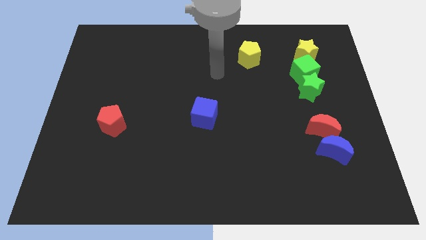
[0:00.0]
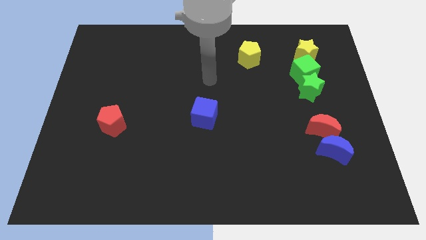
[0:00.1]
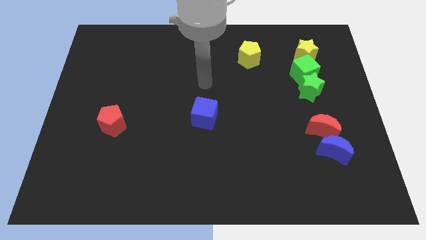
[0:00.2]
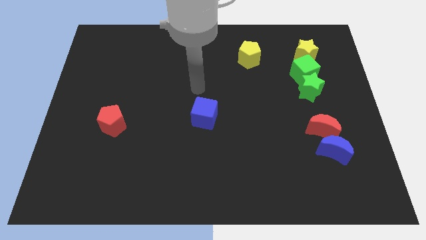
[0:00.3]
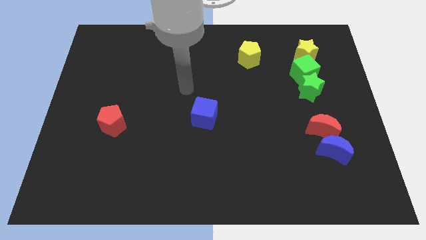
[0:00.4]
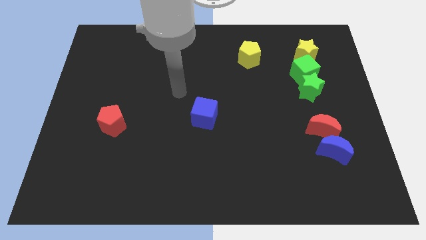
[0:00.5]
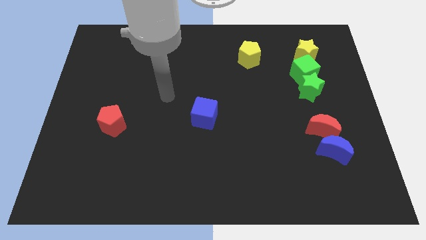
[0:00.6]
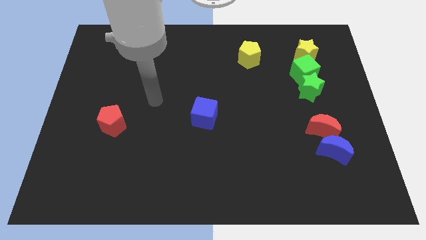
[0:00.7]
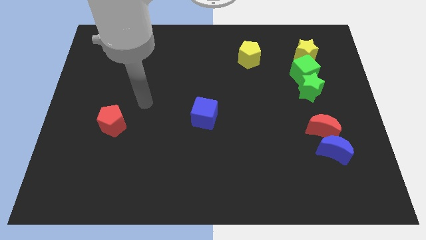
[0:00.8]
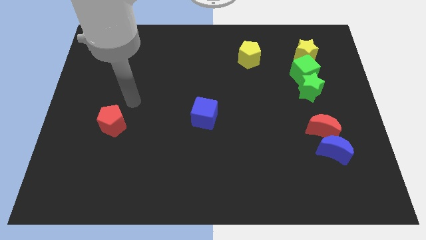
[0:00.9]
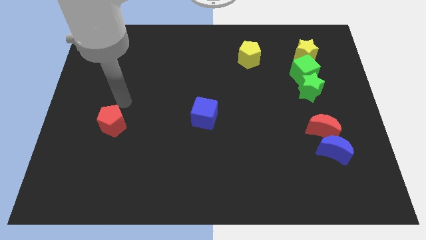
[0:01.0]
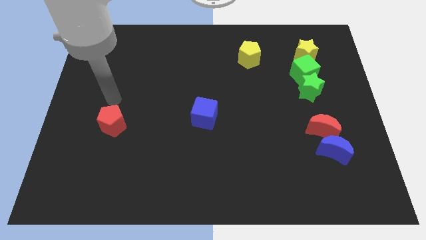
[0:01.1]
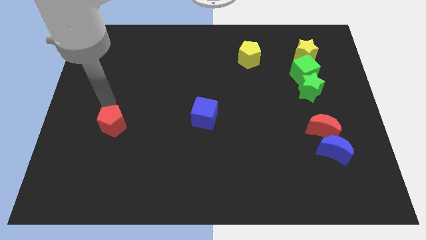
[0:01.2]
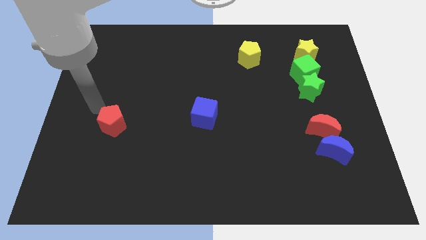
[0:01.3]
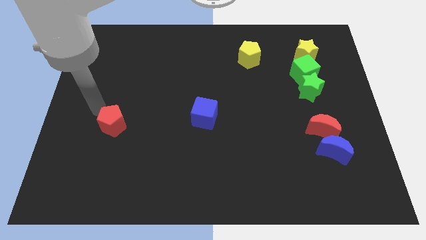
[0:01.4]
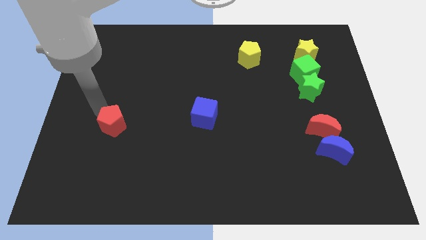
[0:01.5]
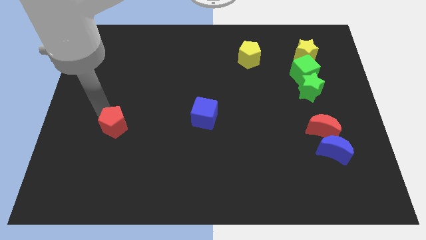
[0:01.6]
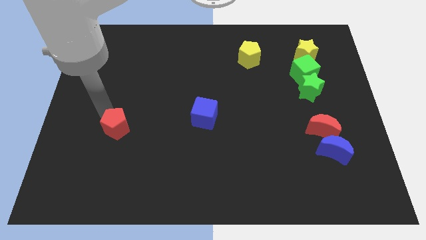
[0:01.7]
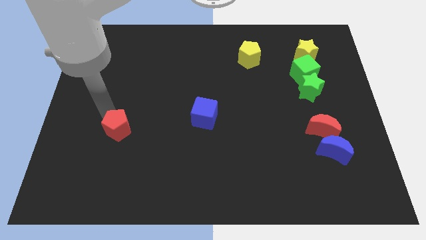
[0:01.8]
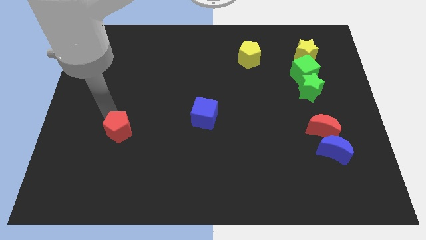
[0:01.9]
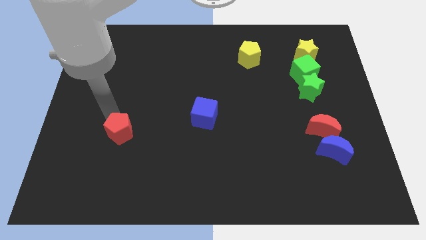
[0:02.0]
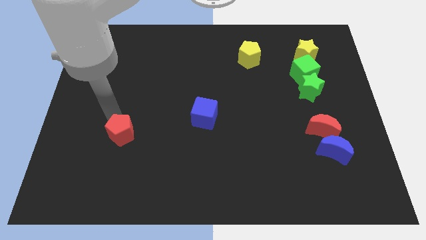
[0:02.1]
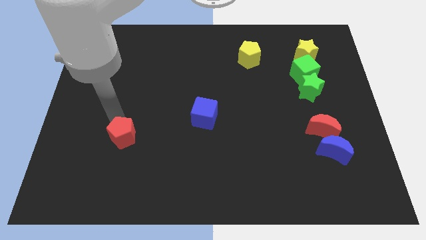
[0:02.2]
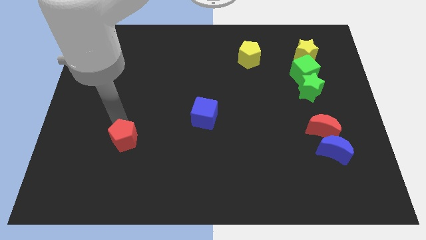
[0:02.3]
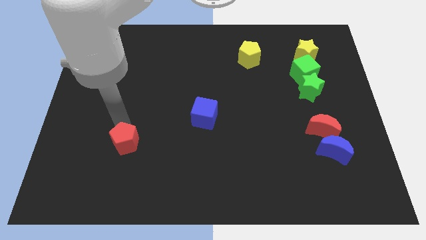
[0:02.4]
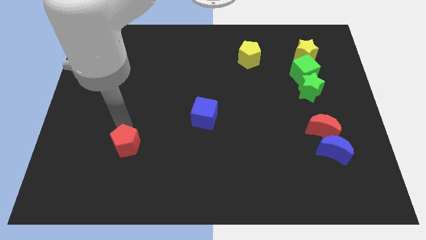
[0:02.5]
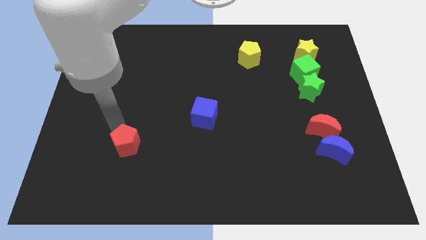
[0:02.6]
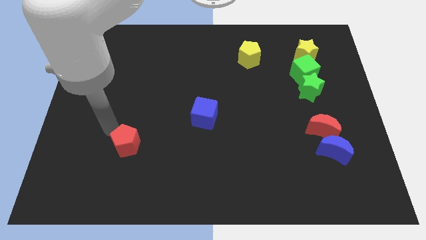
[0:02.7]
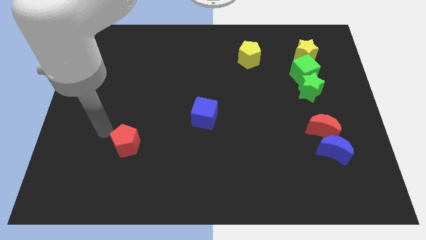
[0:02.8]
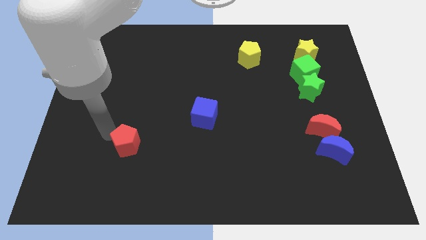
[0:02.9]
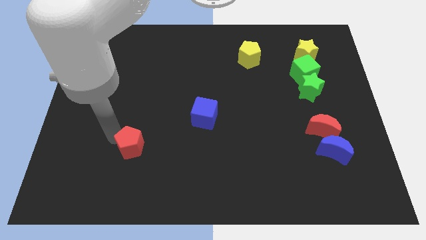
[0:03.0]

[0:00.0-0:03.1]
slightly slide the red pentagon downwards and to the right

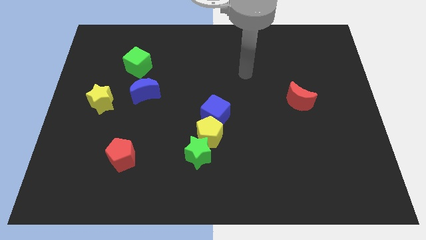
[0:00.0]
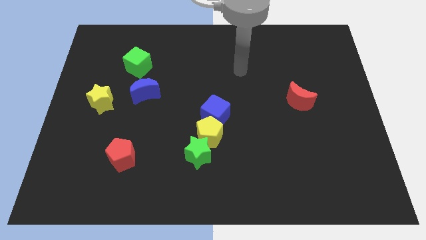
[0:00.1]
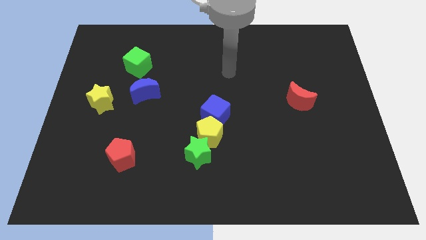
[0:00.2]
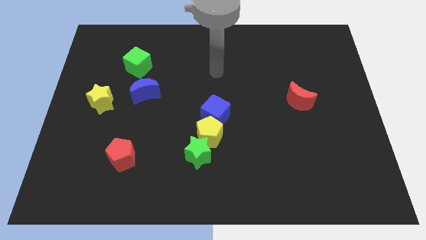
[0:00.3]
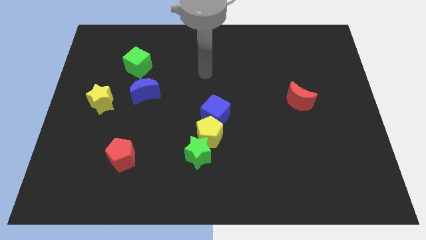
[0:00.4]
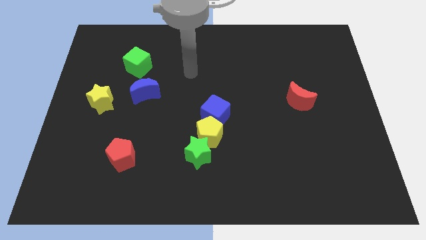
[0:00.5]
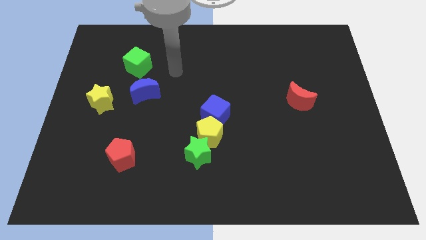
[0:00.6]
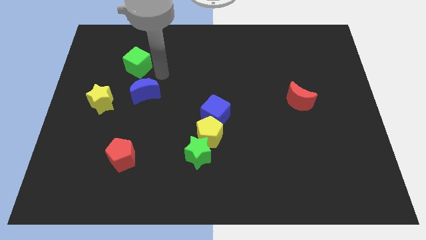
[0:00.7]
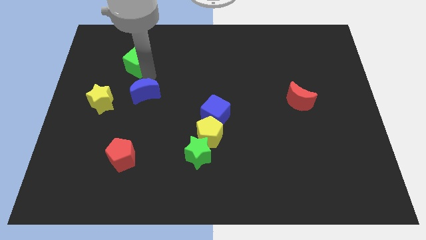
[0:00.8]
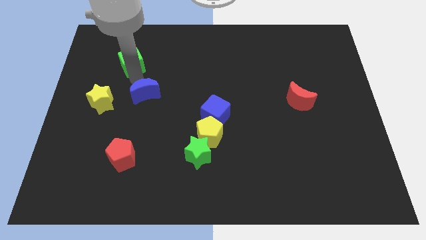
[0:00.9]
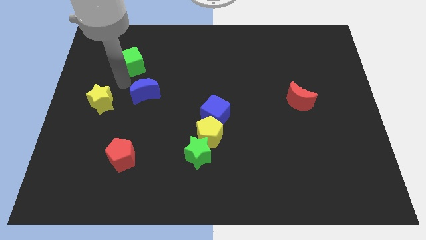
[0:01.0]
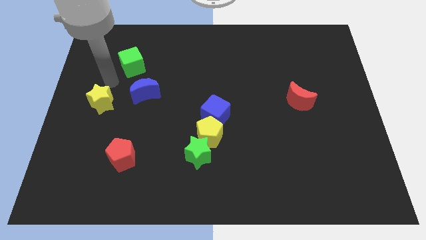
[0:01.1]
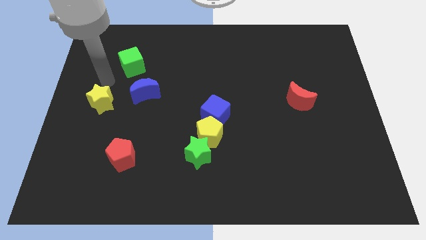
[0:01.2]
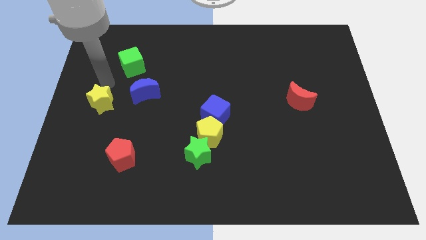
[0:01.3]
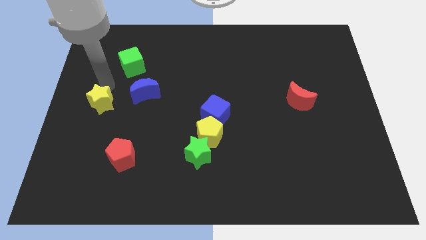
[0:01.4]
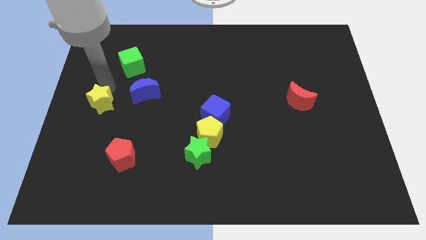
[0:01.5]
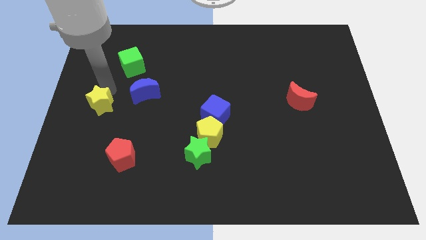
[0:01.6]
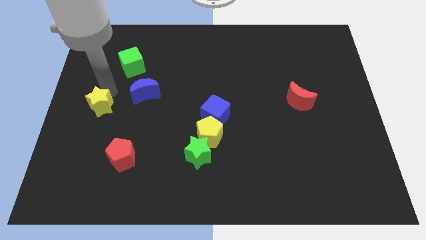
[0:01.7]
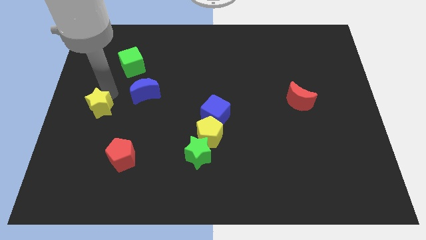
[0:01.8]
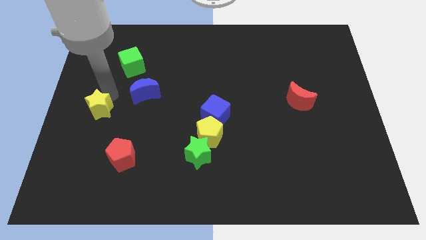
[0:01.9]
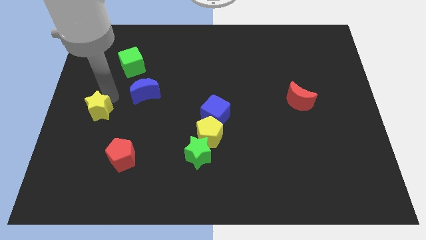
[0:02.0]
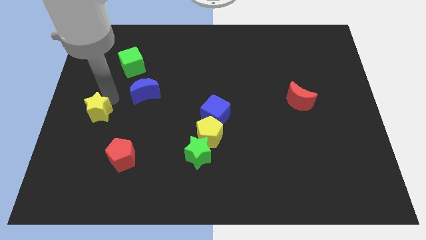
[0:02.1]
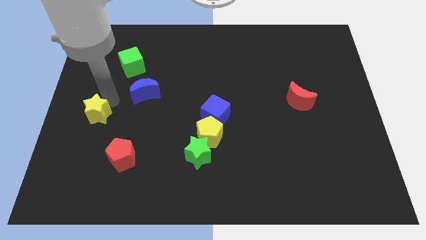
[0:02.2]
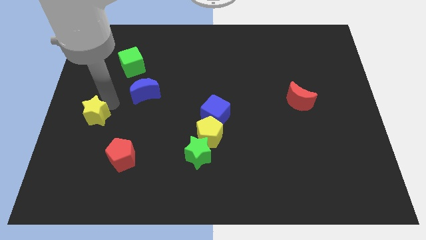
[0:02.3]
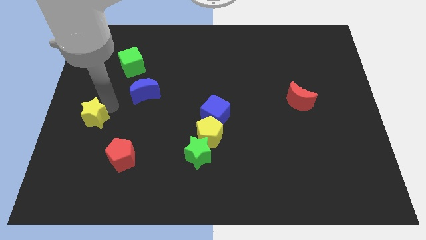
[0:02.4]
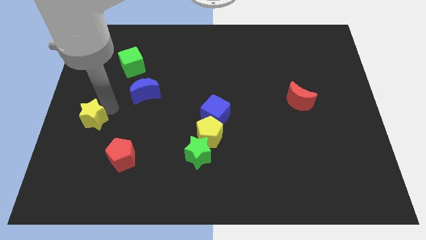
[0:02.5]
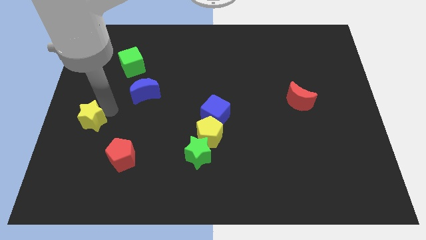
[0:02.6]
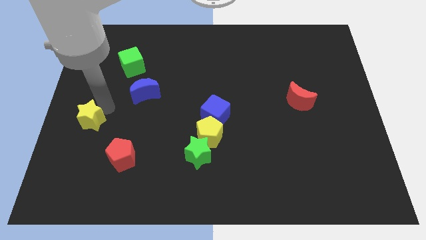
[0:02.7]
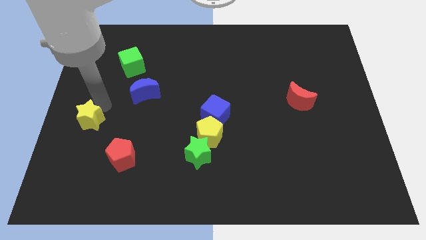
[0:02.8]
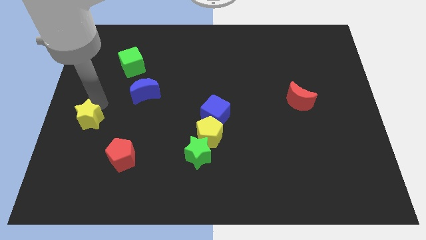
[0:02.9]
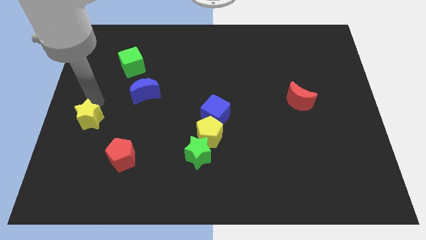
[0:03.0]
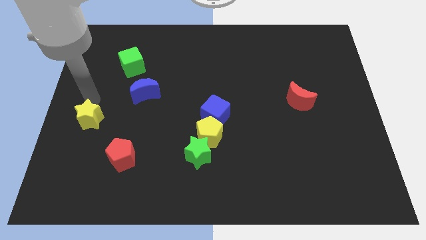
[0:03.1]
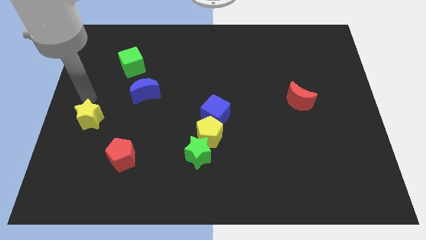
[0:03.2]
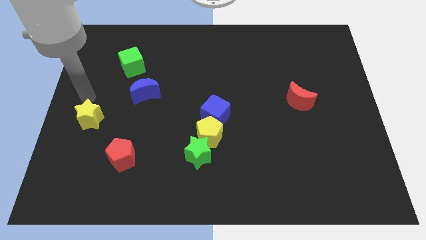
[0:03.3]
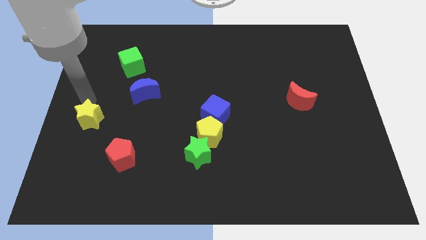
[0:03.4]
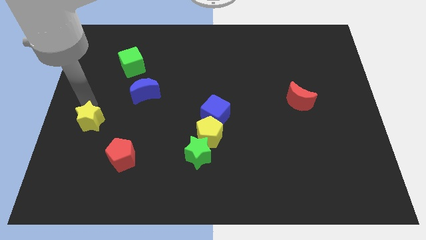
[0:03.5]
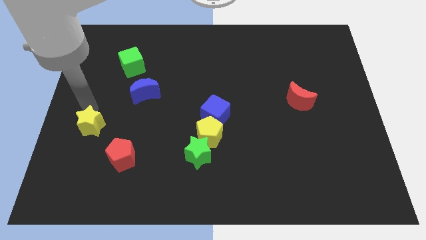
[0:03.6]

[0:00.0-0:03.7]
slightly push the yellow star down

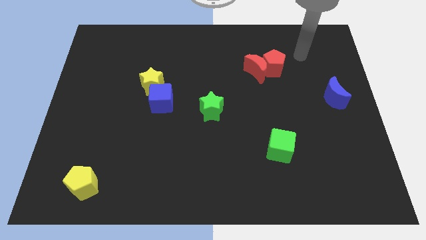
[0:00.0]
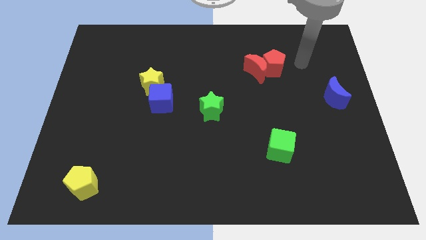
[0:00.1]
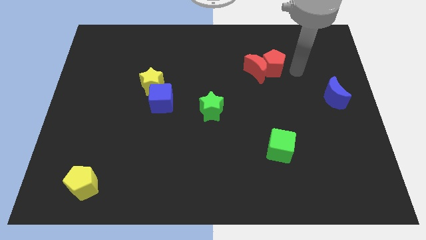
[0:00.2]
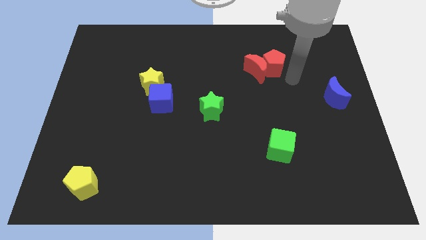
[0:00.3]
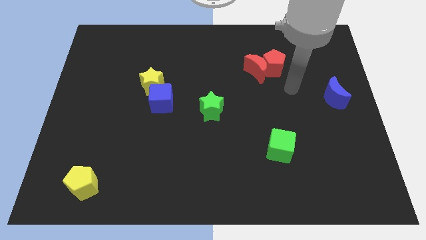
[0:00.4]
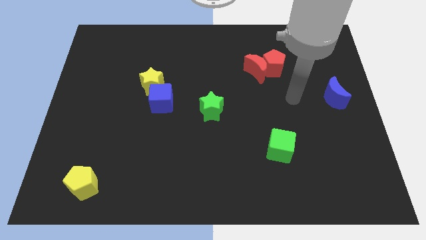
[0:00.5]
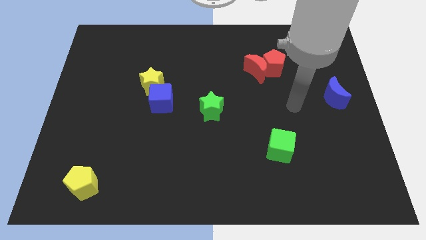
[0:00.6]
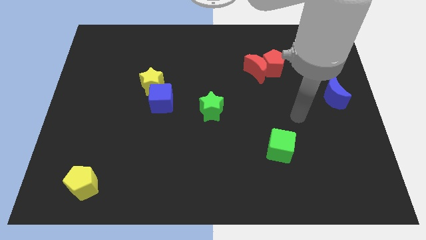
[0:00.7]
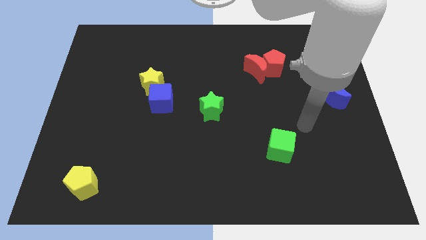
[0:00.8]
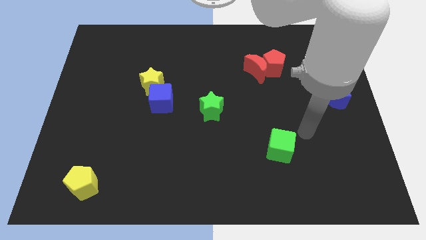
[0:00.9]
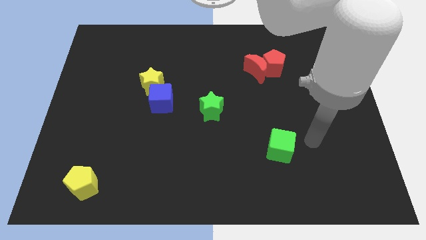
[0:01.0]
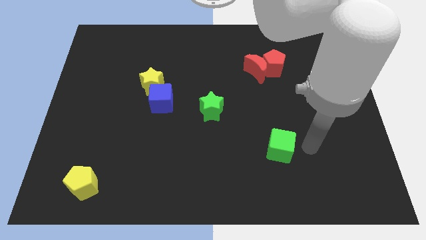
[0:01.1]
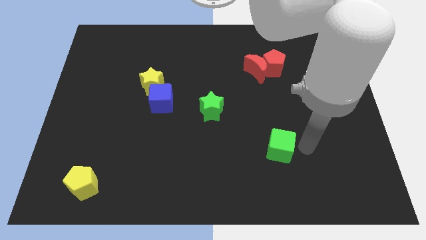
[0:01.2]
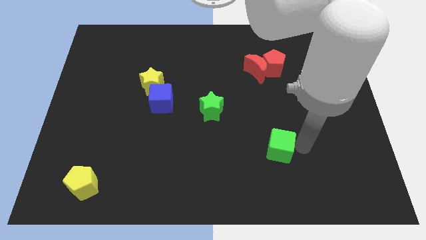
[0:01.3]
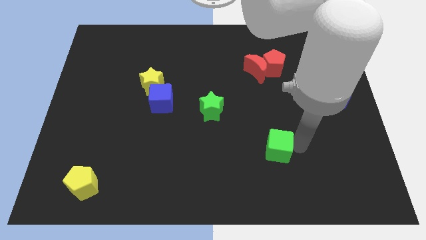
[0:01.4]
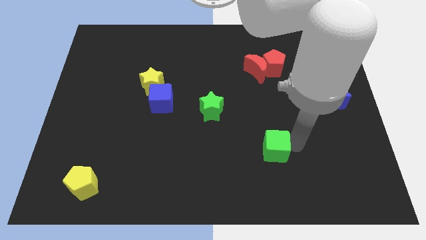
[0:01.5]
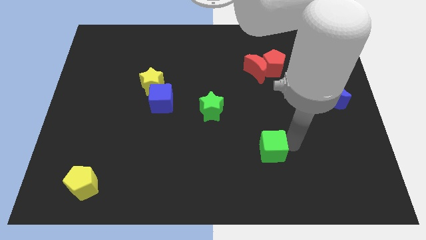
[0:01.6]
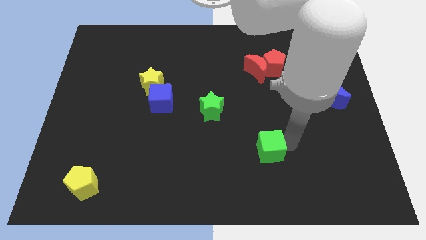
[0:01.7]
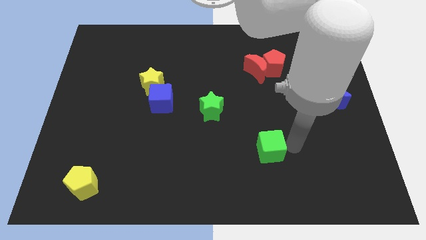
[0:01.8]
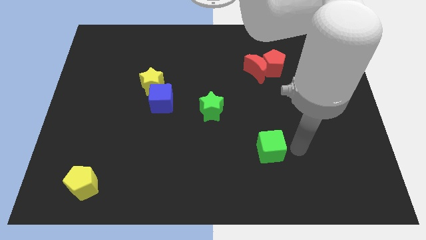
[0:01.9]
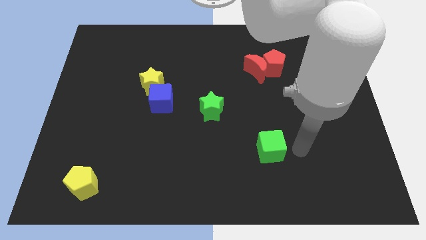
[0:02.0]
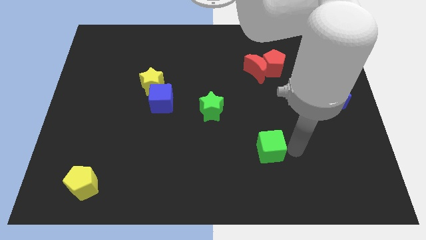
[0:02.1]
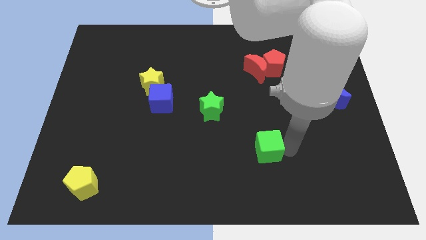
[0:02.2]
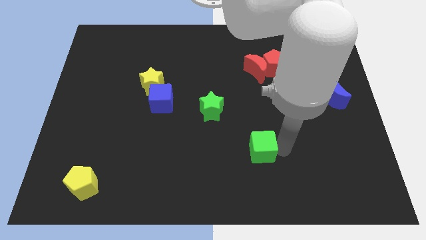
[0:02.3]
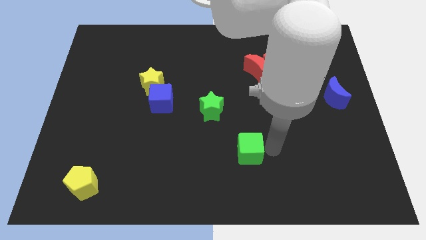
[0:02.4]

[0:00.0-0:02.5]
push the green cube slightly left
